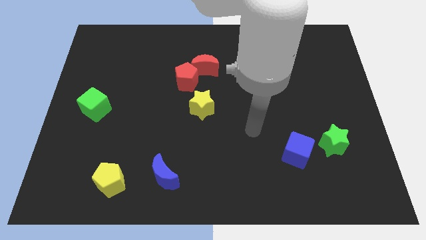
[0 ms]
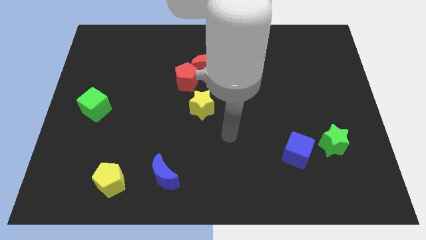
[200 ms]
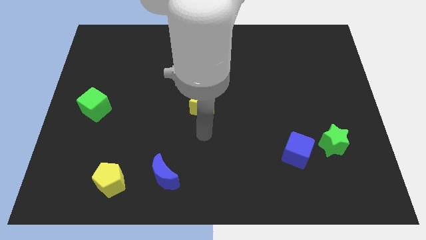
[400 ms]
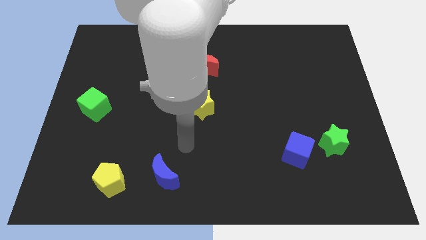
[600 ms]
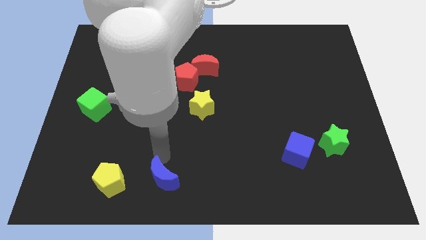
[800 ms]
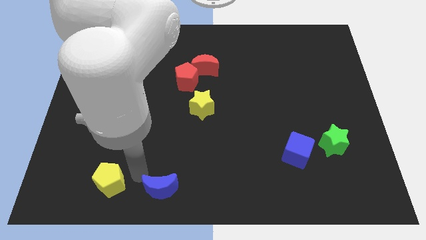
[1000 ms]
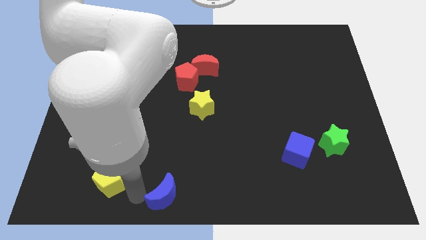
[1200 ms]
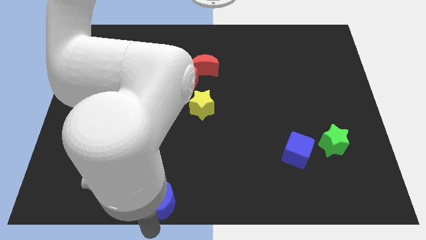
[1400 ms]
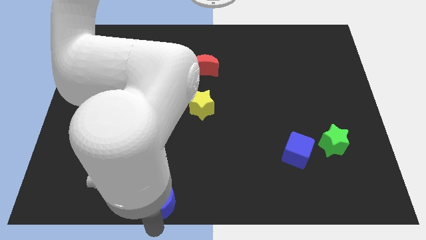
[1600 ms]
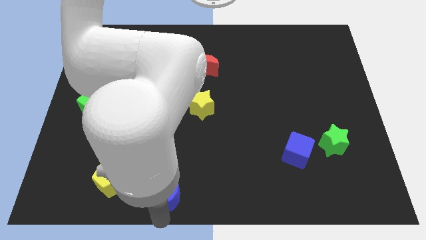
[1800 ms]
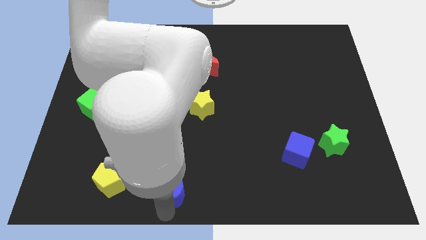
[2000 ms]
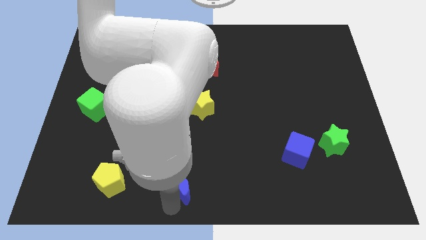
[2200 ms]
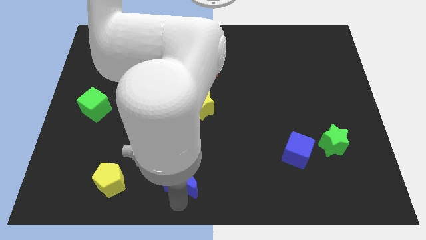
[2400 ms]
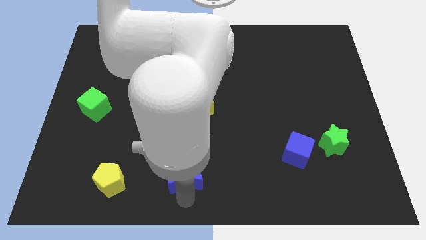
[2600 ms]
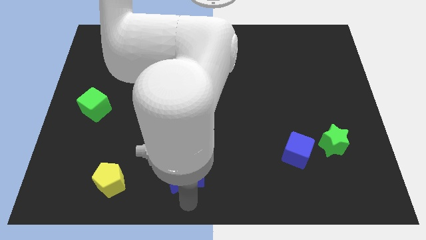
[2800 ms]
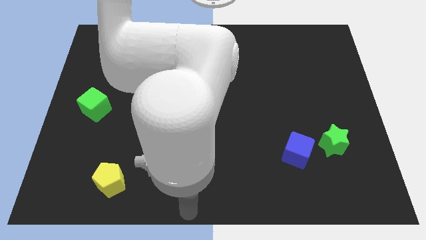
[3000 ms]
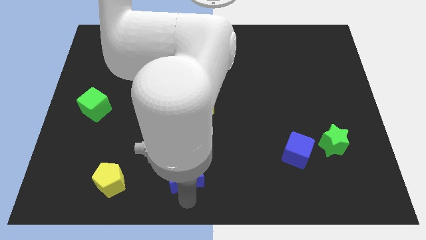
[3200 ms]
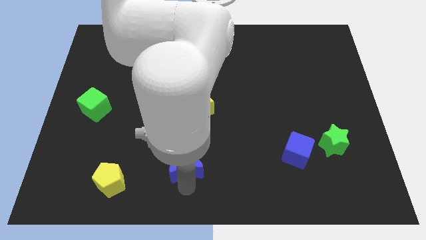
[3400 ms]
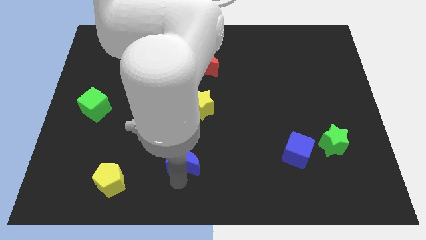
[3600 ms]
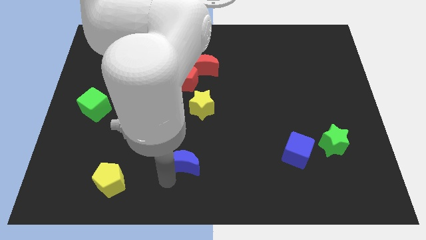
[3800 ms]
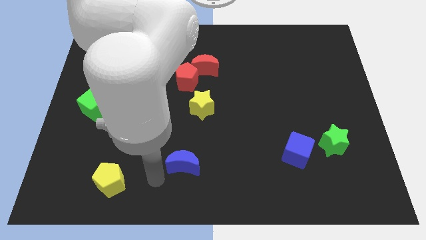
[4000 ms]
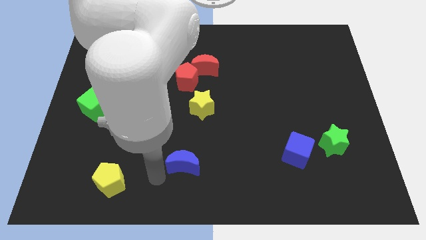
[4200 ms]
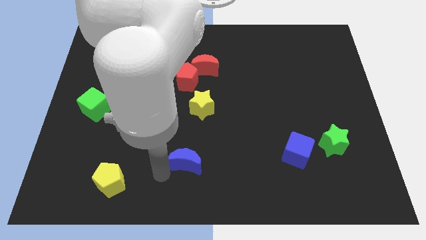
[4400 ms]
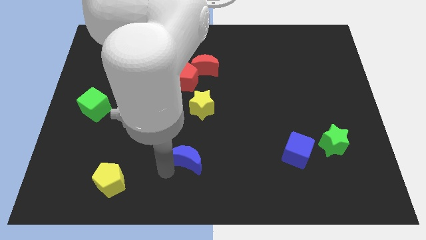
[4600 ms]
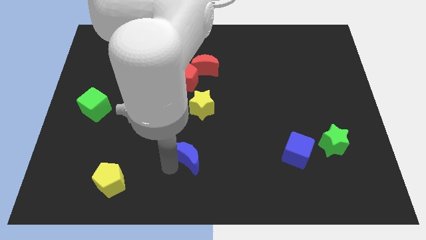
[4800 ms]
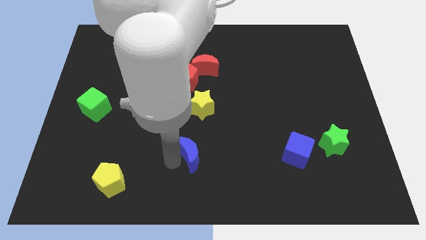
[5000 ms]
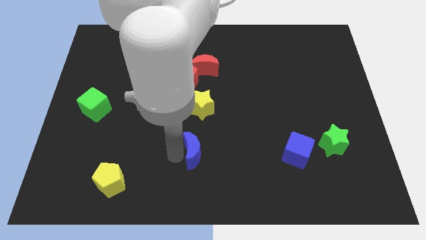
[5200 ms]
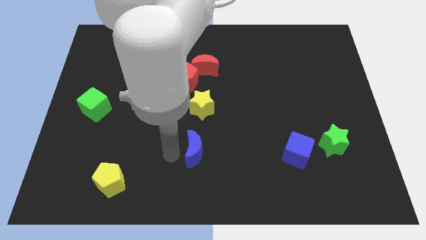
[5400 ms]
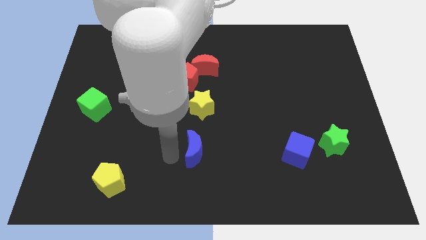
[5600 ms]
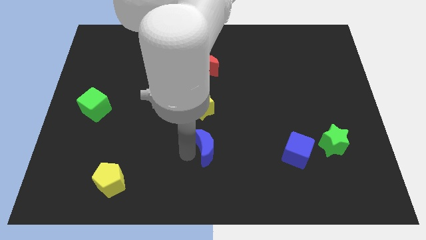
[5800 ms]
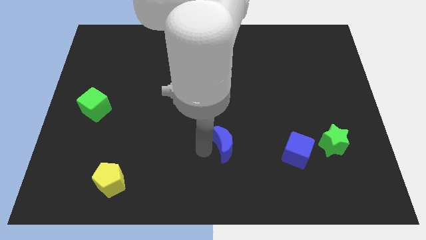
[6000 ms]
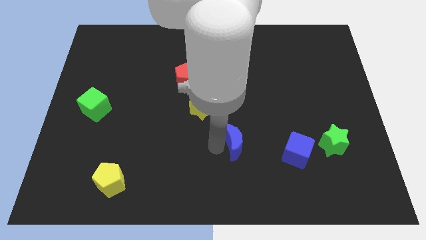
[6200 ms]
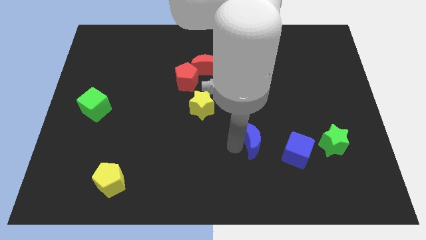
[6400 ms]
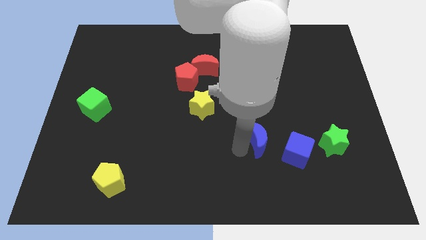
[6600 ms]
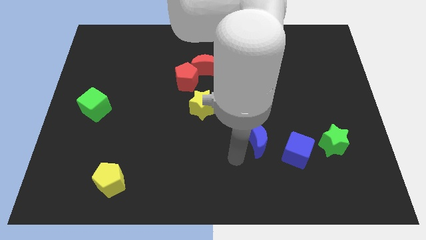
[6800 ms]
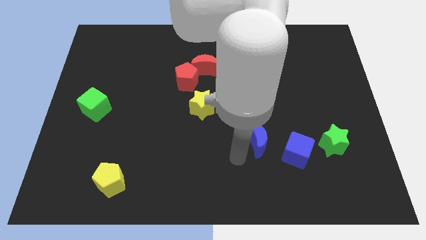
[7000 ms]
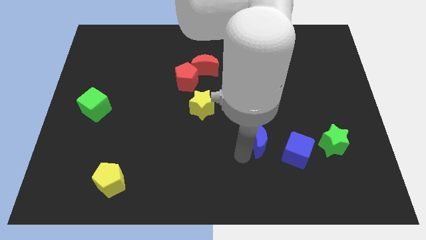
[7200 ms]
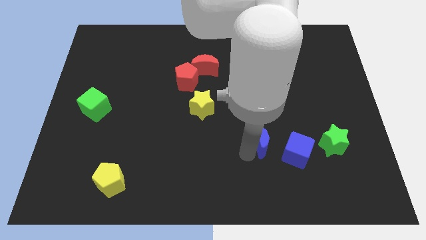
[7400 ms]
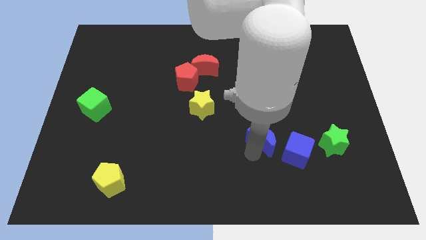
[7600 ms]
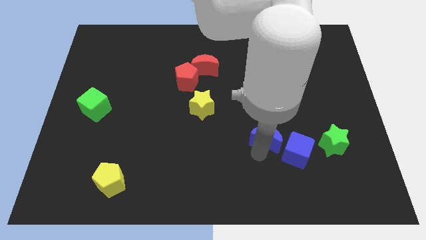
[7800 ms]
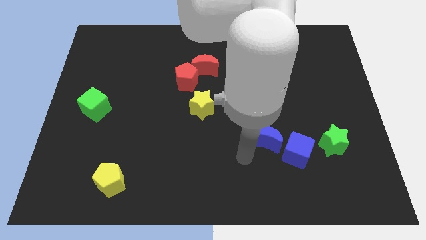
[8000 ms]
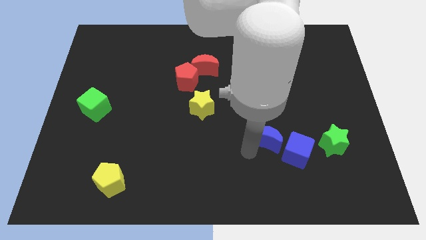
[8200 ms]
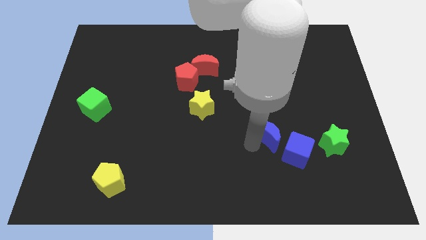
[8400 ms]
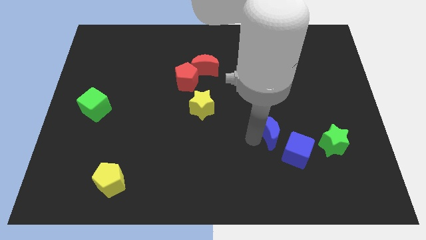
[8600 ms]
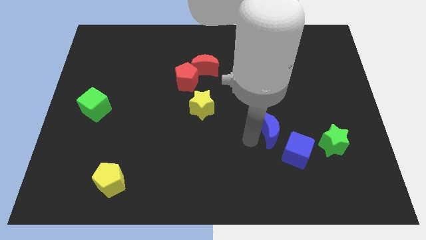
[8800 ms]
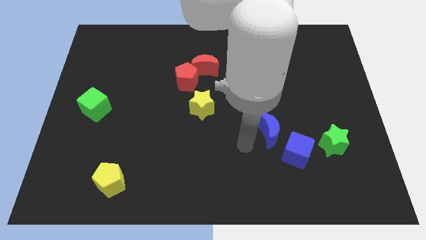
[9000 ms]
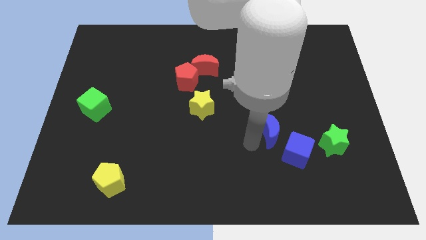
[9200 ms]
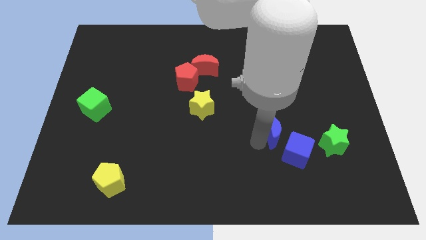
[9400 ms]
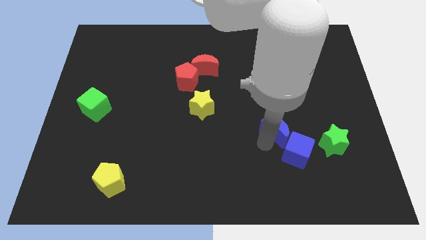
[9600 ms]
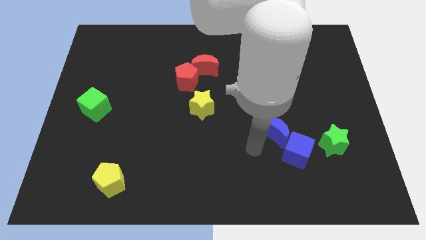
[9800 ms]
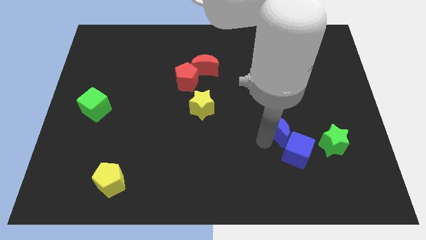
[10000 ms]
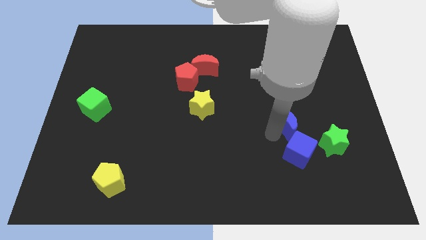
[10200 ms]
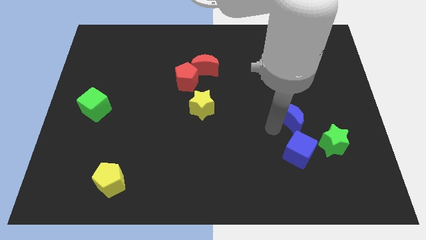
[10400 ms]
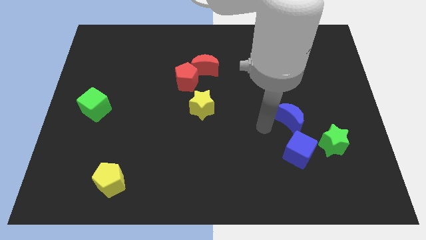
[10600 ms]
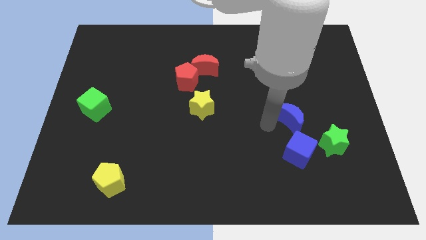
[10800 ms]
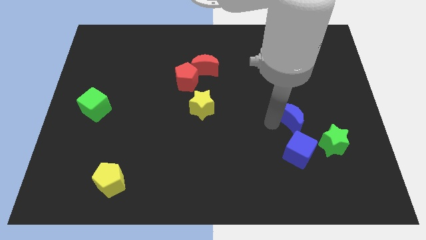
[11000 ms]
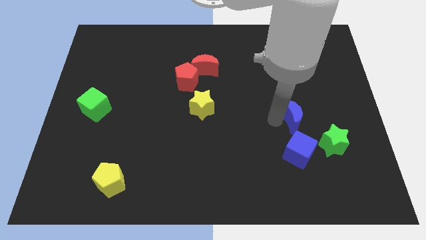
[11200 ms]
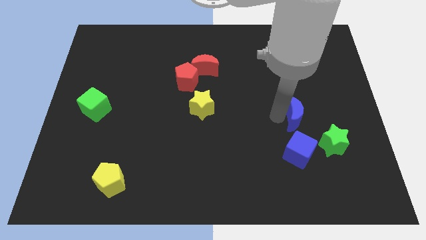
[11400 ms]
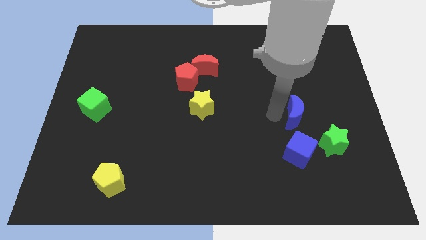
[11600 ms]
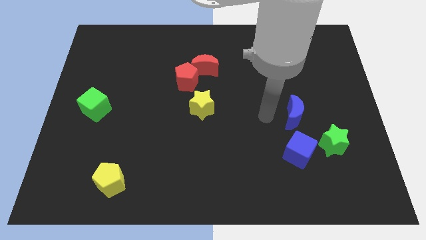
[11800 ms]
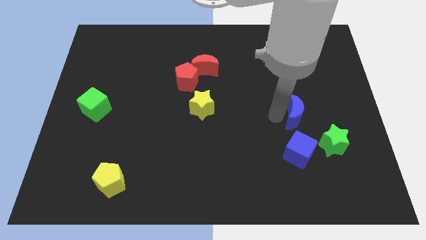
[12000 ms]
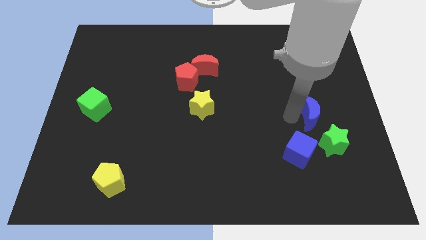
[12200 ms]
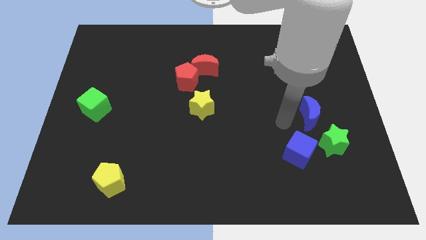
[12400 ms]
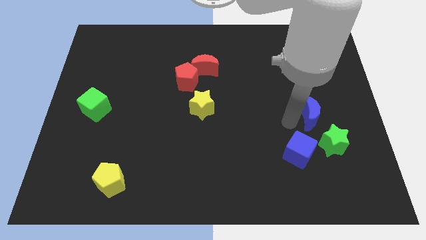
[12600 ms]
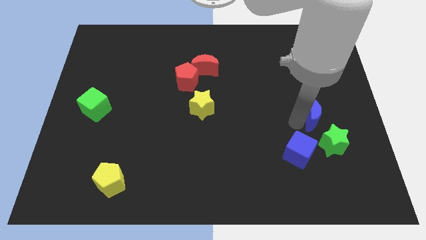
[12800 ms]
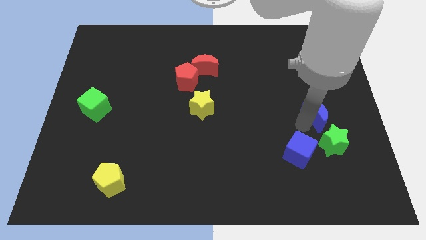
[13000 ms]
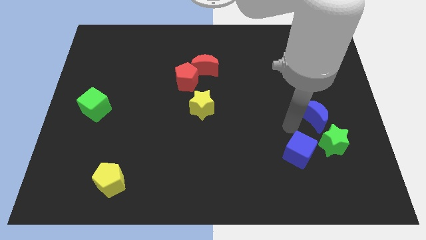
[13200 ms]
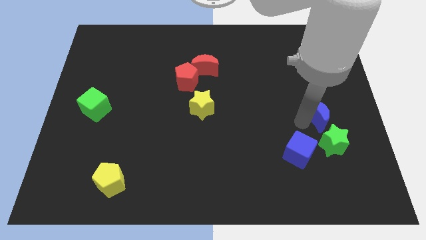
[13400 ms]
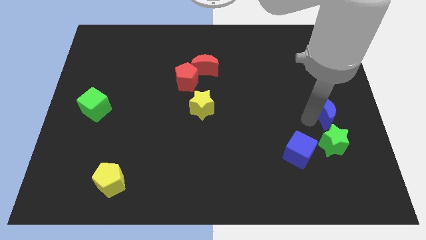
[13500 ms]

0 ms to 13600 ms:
put the blue moon to the right side of the board

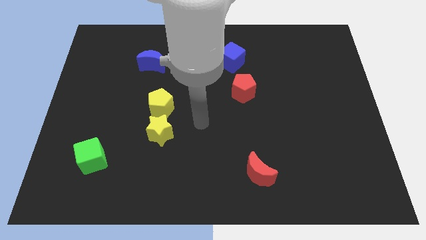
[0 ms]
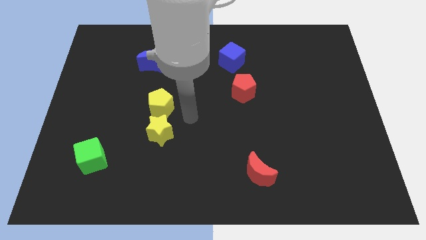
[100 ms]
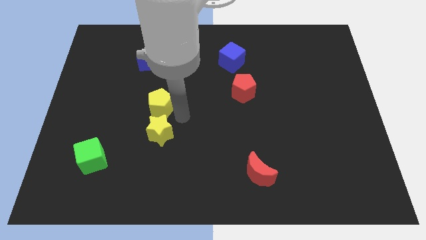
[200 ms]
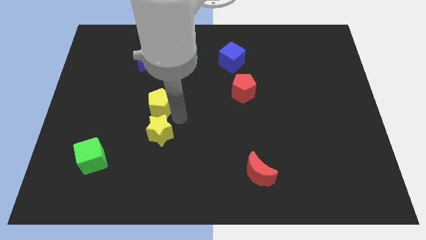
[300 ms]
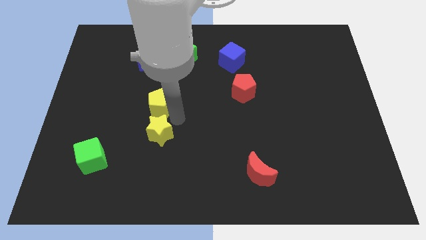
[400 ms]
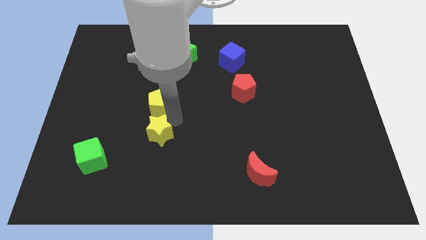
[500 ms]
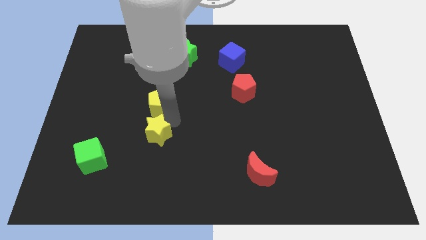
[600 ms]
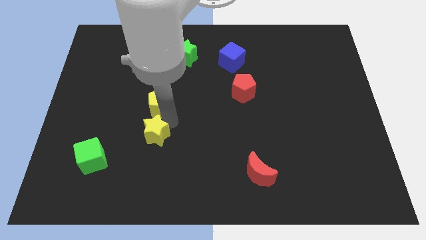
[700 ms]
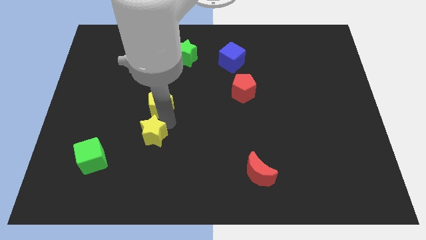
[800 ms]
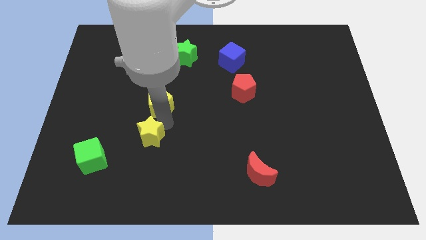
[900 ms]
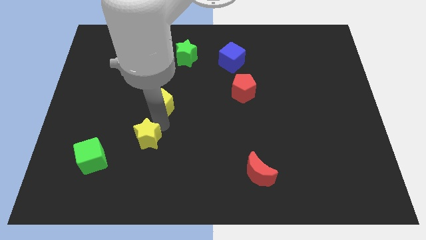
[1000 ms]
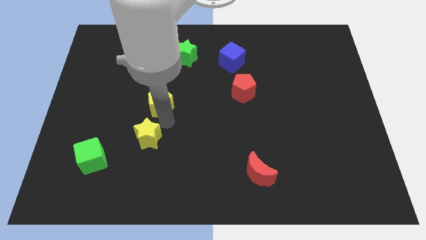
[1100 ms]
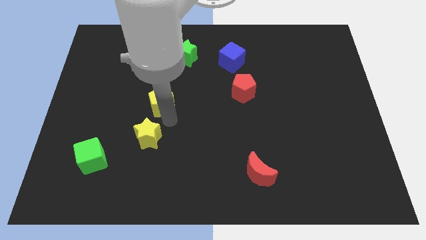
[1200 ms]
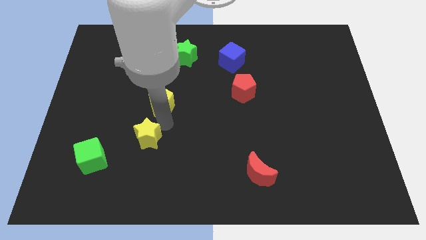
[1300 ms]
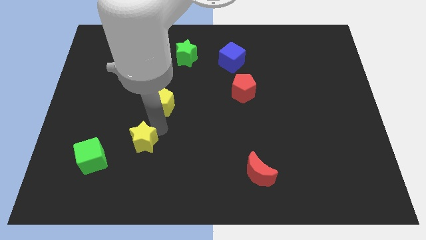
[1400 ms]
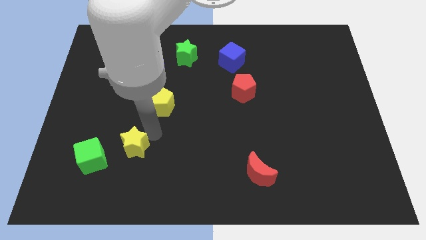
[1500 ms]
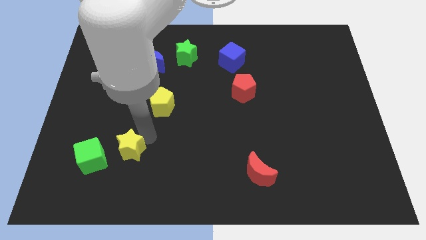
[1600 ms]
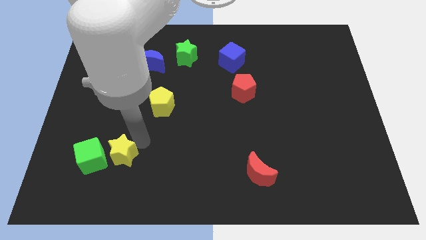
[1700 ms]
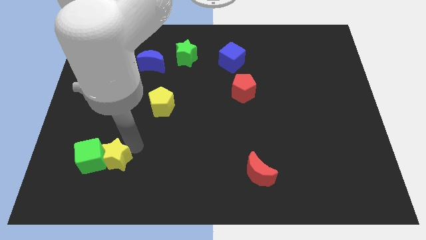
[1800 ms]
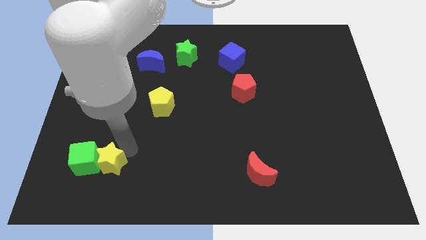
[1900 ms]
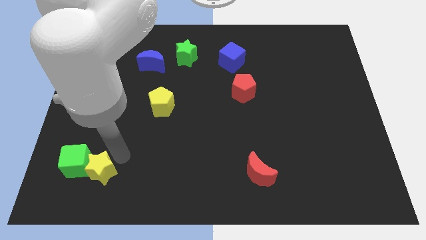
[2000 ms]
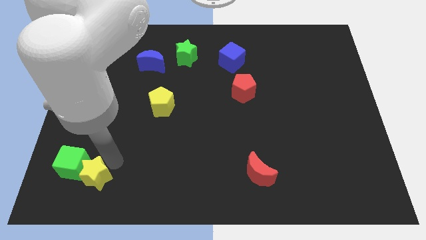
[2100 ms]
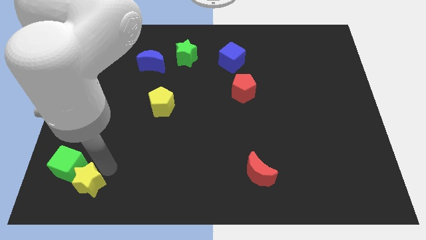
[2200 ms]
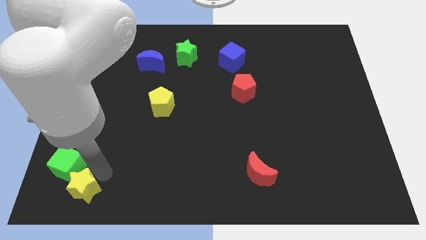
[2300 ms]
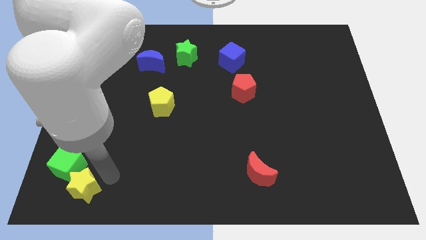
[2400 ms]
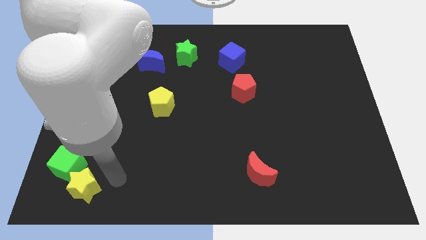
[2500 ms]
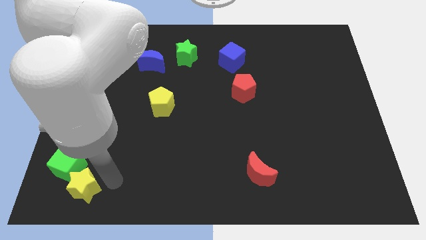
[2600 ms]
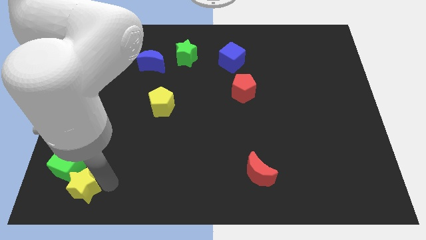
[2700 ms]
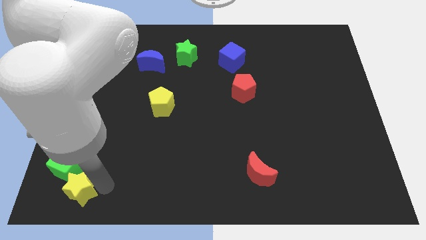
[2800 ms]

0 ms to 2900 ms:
push the yellow star to the bottom left corner
